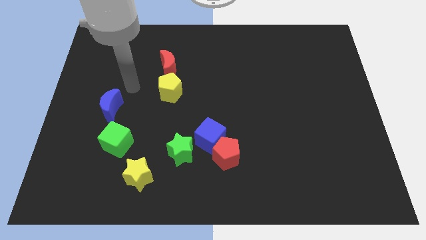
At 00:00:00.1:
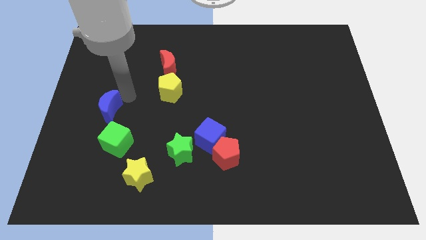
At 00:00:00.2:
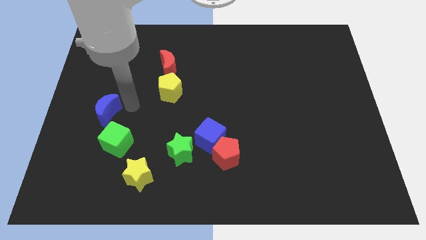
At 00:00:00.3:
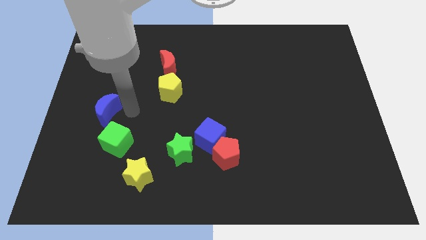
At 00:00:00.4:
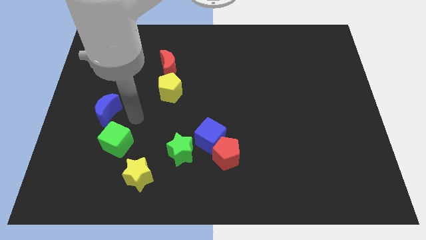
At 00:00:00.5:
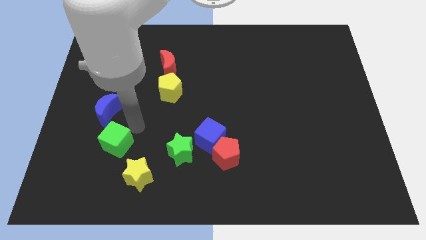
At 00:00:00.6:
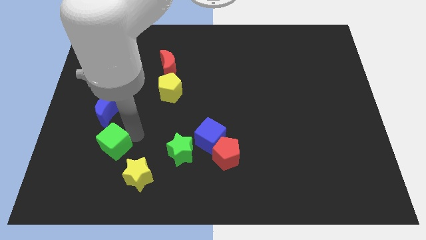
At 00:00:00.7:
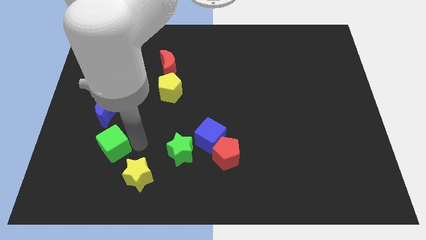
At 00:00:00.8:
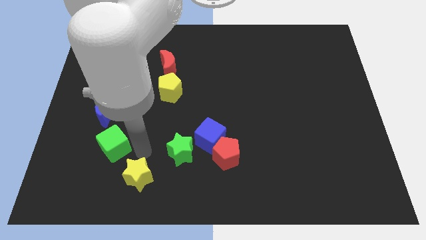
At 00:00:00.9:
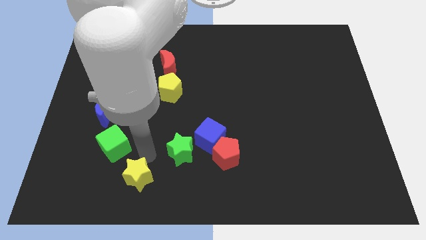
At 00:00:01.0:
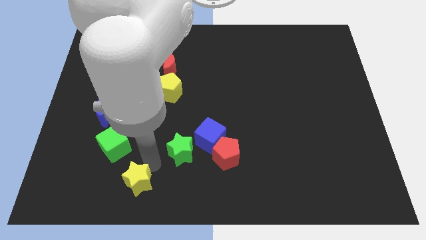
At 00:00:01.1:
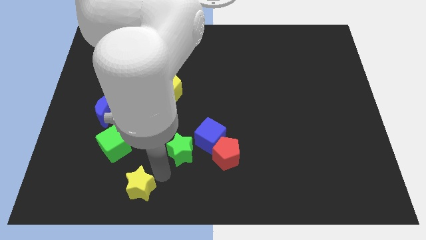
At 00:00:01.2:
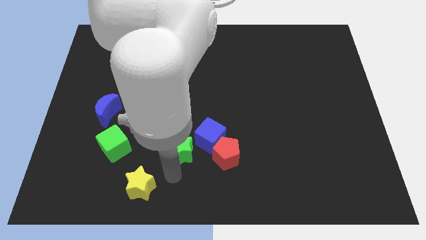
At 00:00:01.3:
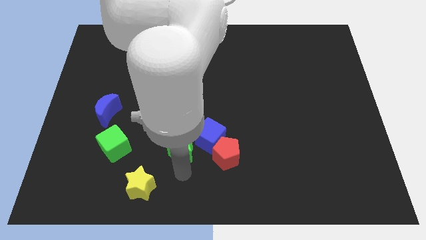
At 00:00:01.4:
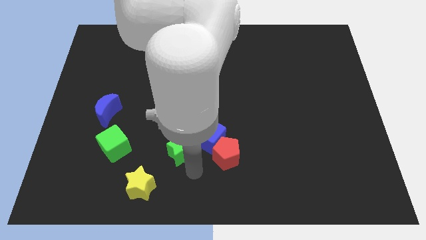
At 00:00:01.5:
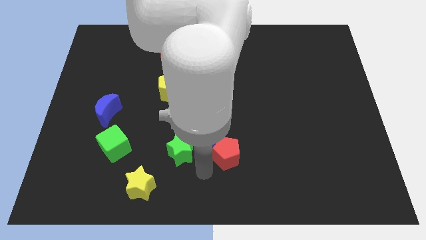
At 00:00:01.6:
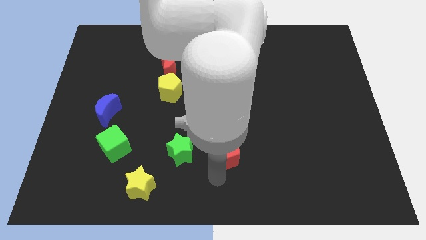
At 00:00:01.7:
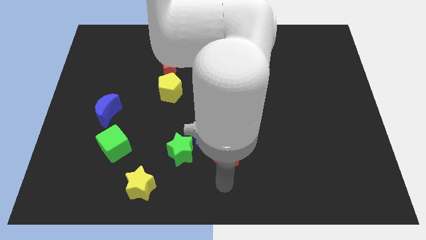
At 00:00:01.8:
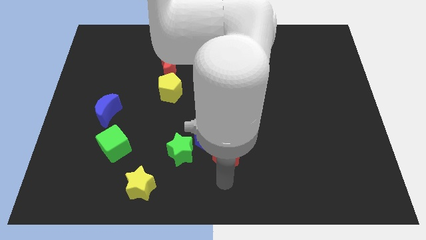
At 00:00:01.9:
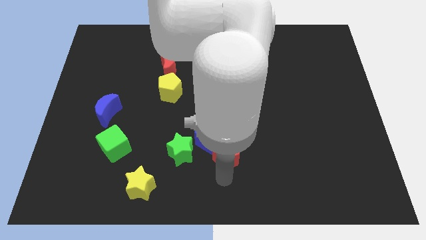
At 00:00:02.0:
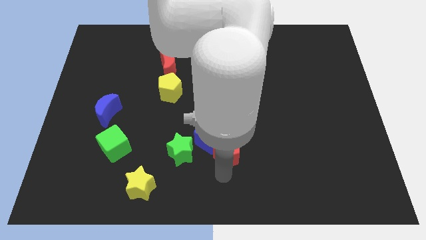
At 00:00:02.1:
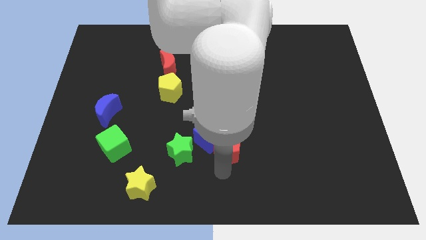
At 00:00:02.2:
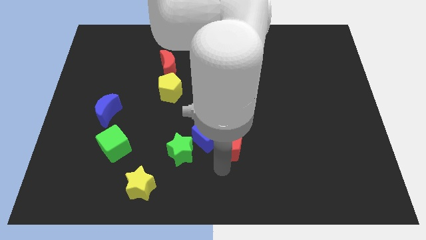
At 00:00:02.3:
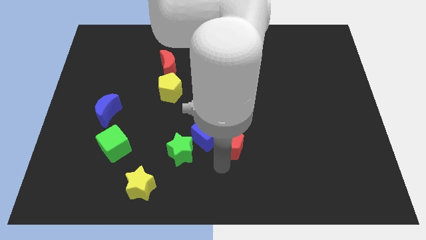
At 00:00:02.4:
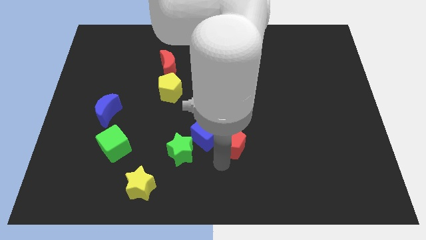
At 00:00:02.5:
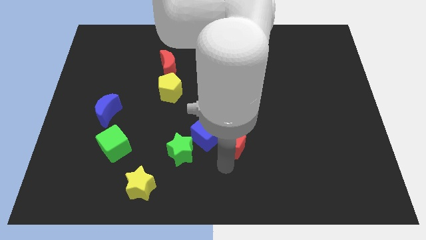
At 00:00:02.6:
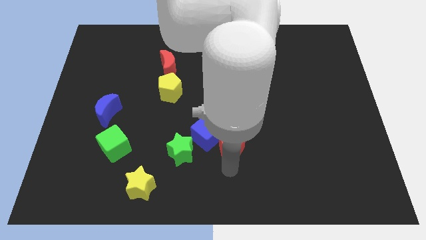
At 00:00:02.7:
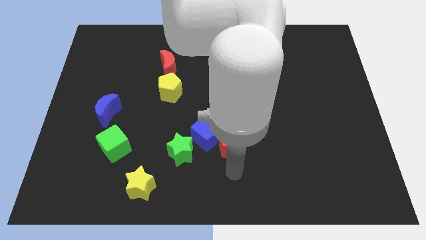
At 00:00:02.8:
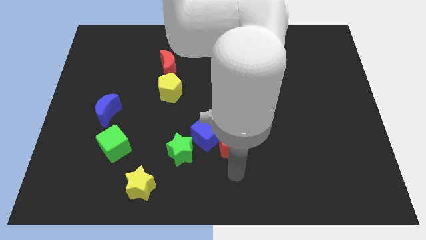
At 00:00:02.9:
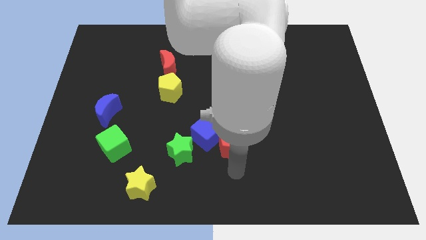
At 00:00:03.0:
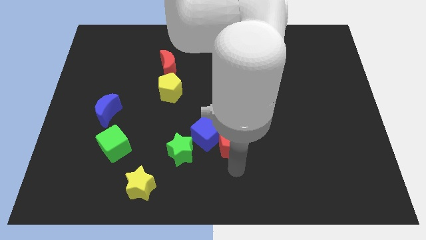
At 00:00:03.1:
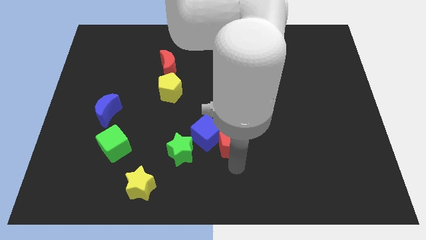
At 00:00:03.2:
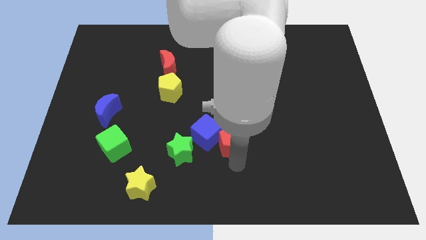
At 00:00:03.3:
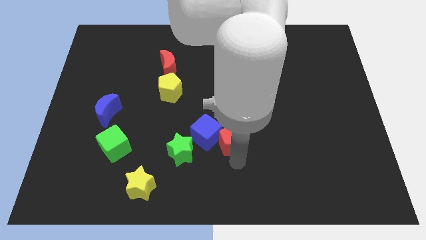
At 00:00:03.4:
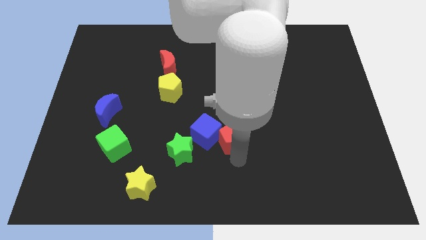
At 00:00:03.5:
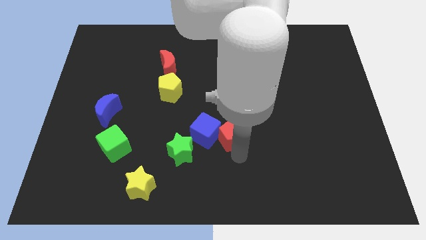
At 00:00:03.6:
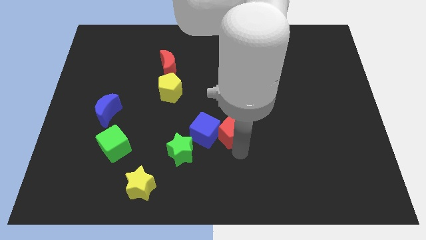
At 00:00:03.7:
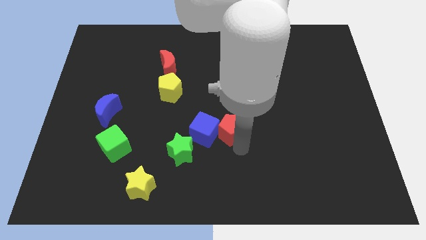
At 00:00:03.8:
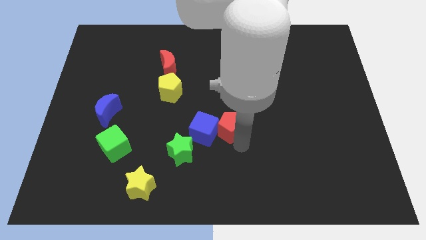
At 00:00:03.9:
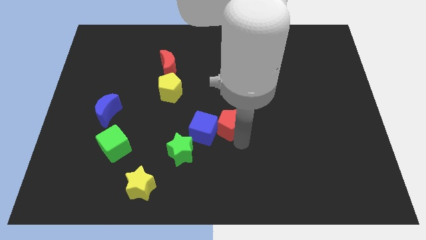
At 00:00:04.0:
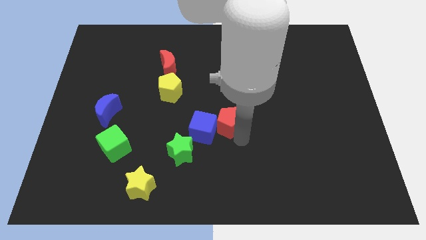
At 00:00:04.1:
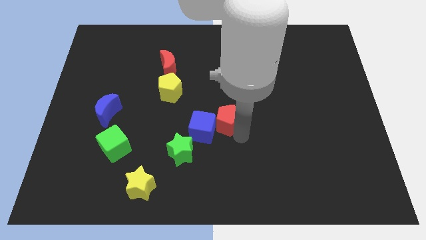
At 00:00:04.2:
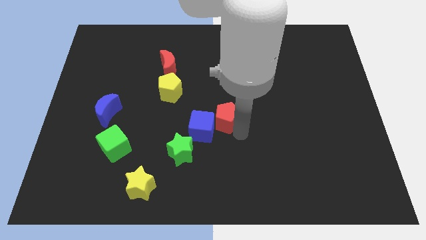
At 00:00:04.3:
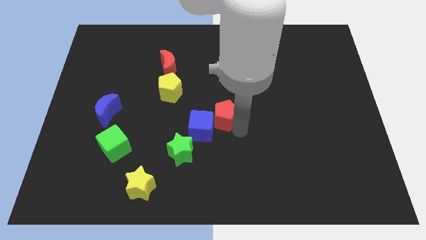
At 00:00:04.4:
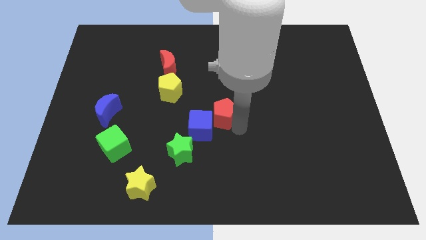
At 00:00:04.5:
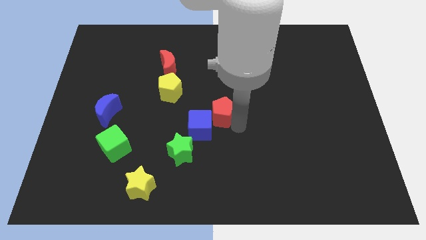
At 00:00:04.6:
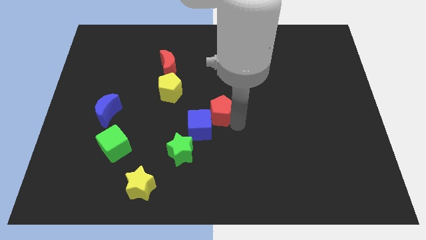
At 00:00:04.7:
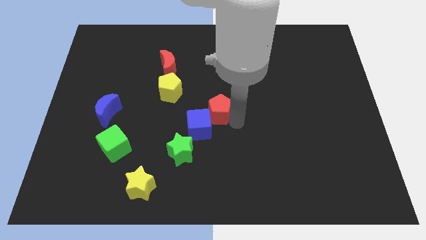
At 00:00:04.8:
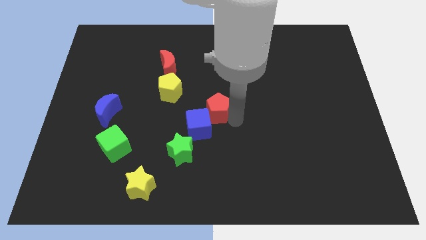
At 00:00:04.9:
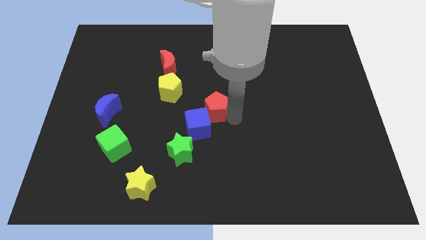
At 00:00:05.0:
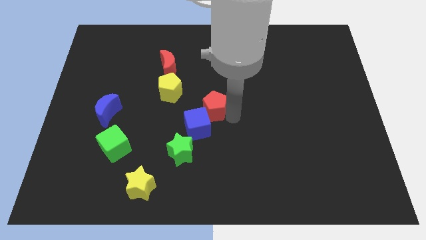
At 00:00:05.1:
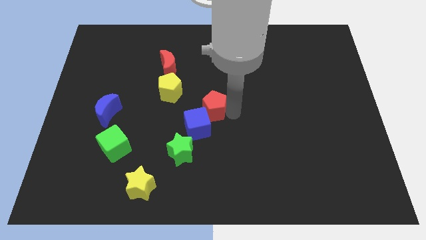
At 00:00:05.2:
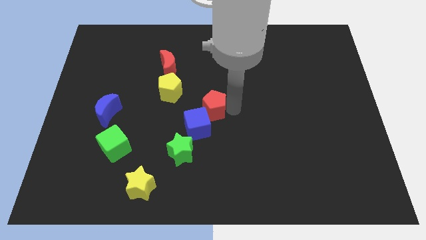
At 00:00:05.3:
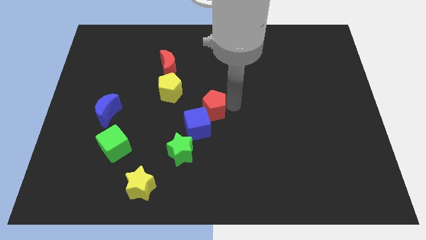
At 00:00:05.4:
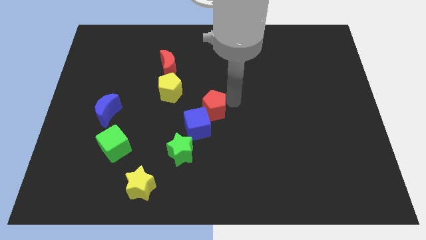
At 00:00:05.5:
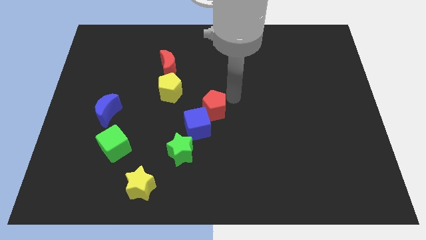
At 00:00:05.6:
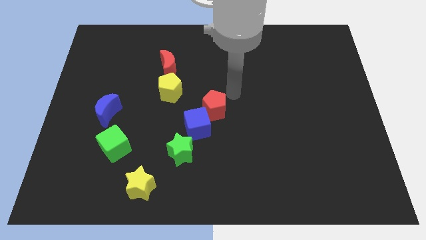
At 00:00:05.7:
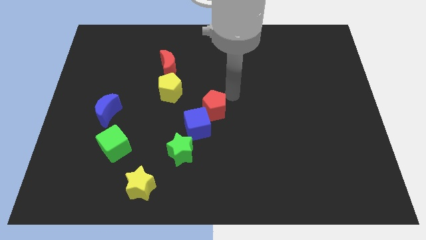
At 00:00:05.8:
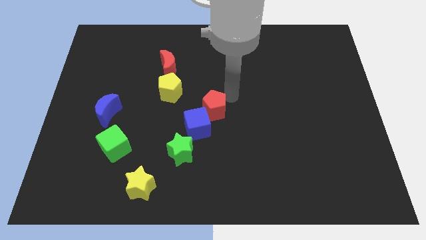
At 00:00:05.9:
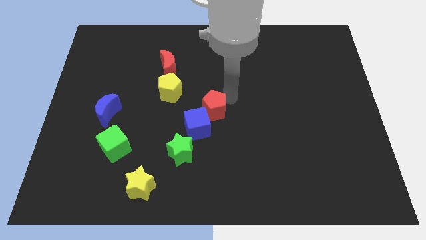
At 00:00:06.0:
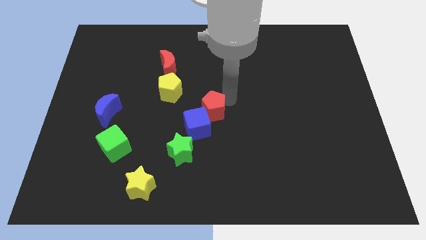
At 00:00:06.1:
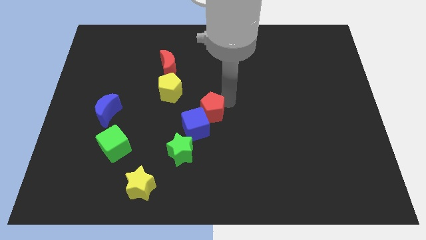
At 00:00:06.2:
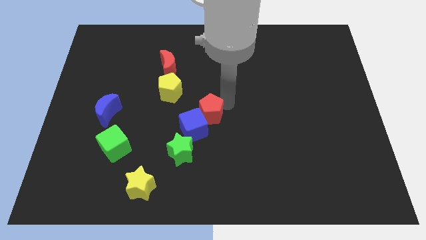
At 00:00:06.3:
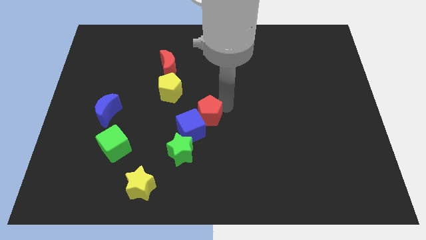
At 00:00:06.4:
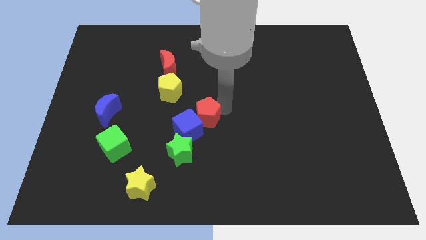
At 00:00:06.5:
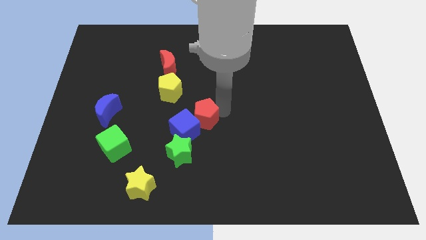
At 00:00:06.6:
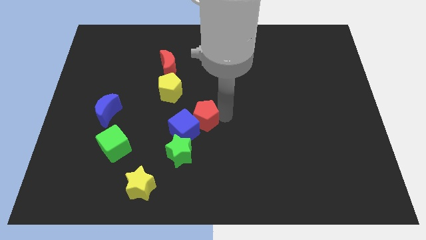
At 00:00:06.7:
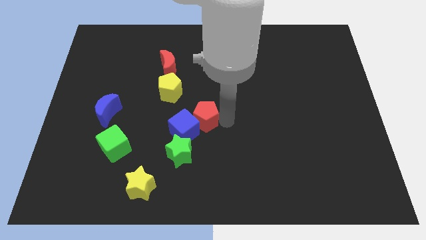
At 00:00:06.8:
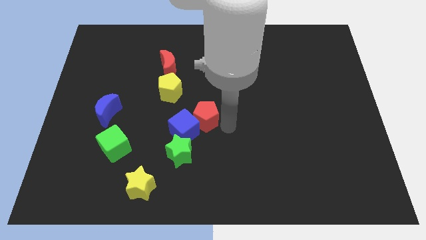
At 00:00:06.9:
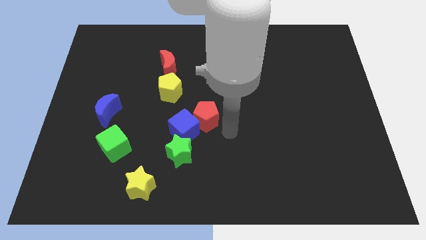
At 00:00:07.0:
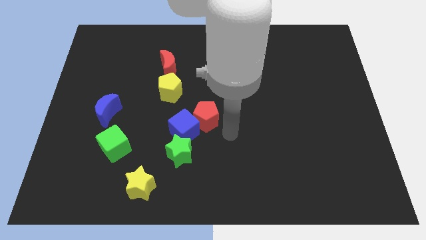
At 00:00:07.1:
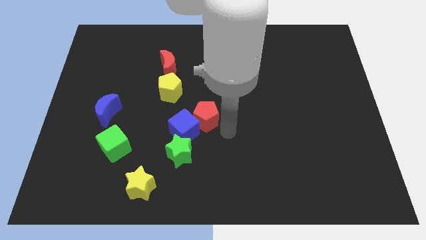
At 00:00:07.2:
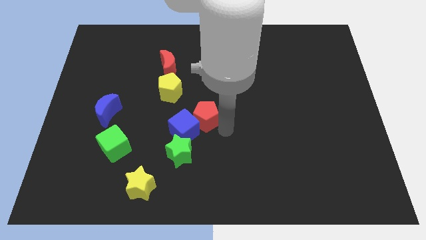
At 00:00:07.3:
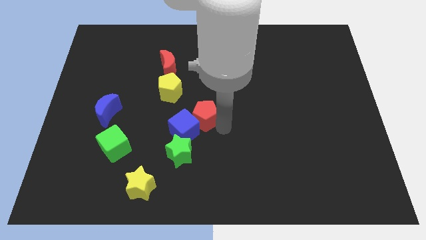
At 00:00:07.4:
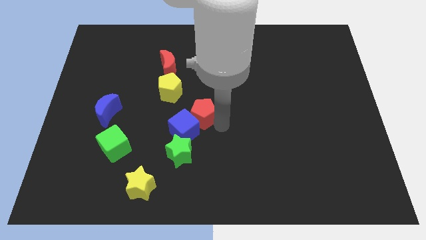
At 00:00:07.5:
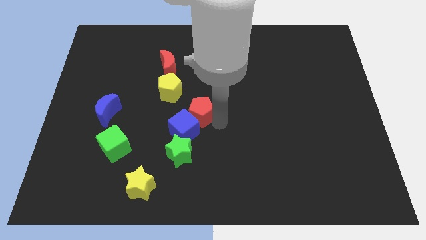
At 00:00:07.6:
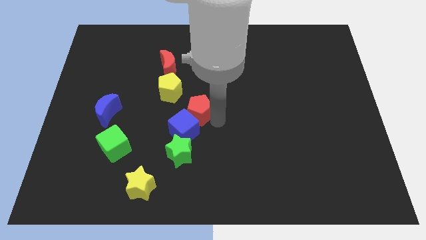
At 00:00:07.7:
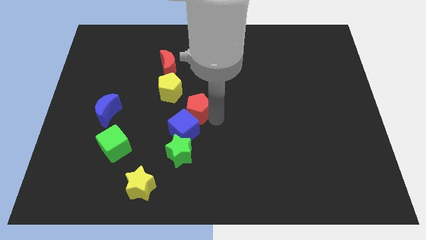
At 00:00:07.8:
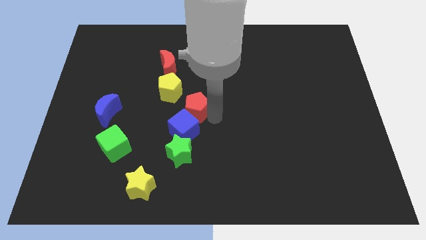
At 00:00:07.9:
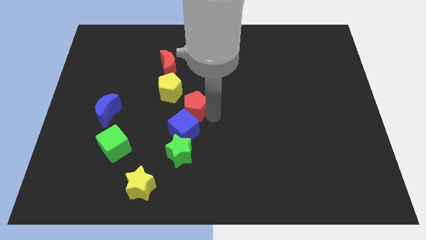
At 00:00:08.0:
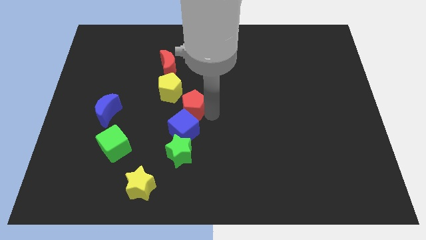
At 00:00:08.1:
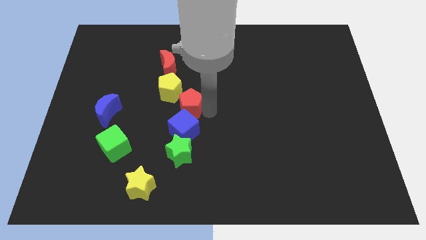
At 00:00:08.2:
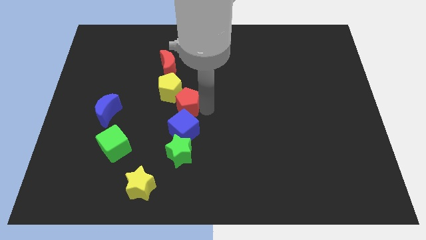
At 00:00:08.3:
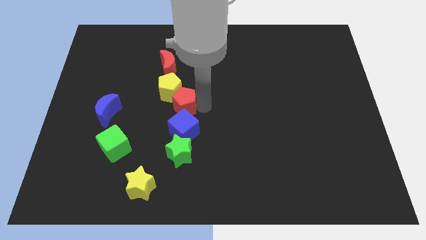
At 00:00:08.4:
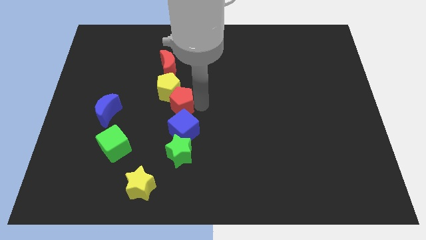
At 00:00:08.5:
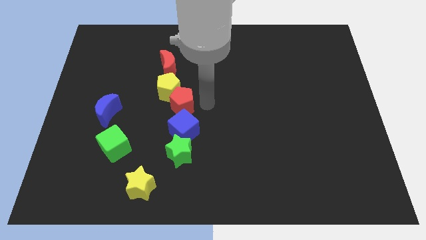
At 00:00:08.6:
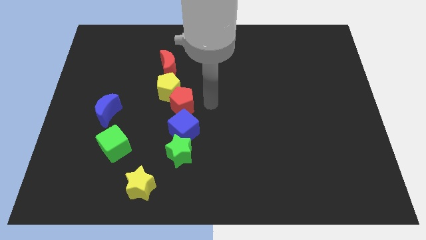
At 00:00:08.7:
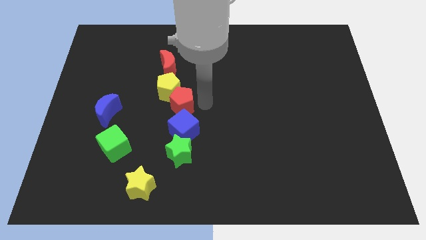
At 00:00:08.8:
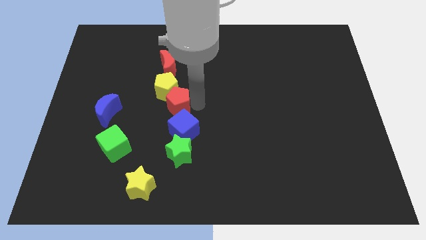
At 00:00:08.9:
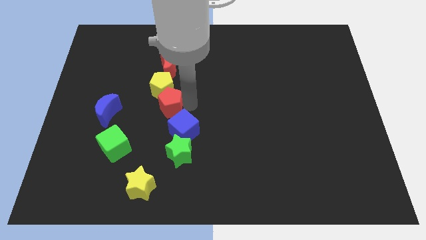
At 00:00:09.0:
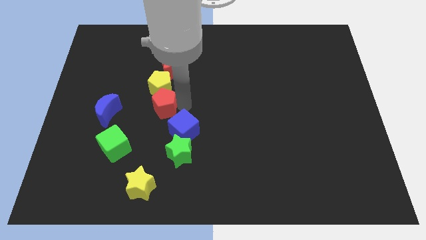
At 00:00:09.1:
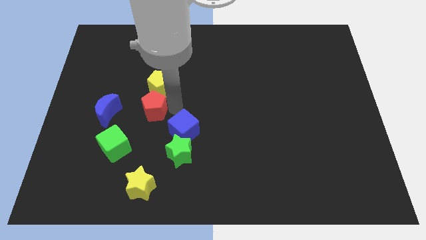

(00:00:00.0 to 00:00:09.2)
push the red pentagon diagonally upwards and left
